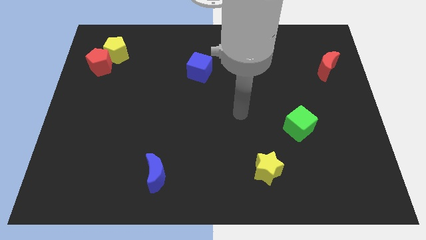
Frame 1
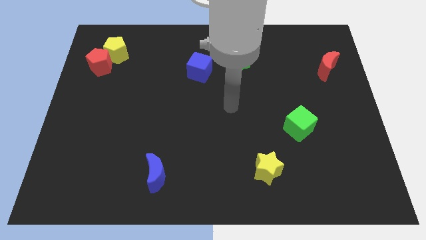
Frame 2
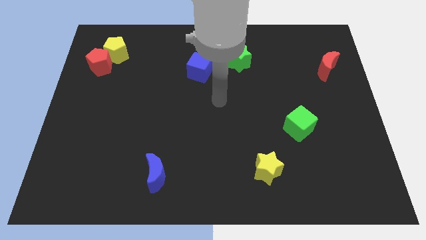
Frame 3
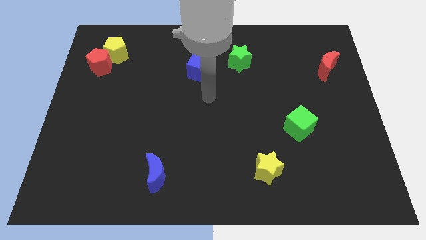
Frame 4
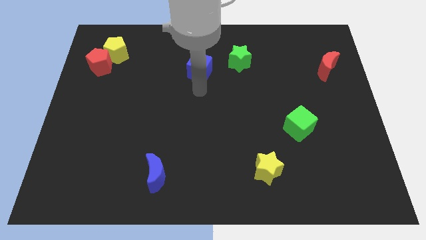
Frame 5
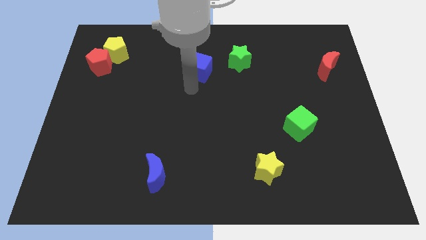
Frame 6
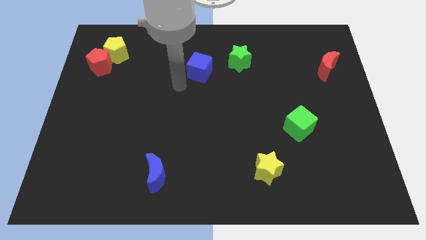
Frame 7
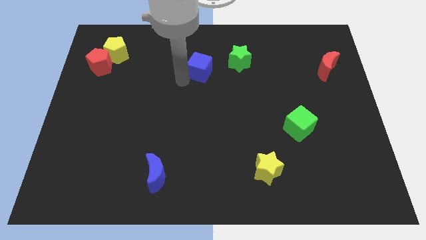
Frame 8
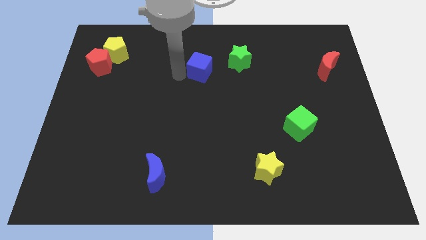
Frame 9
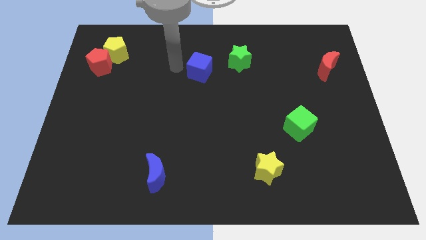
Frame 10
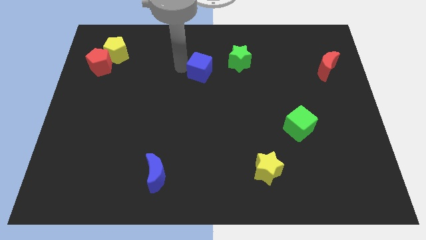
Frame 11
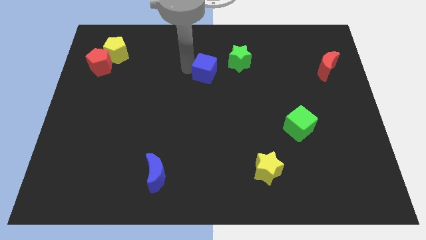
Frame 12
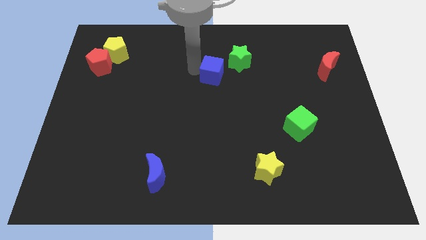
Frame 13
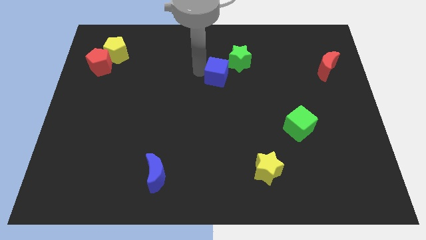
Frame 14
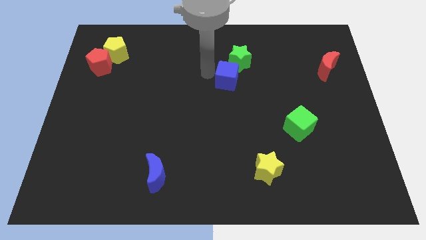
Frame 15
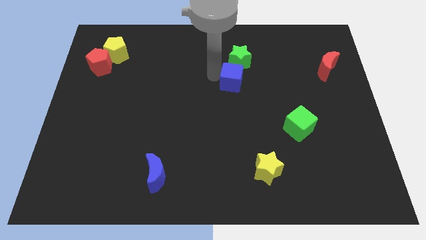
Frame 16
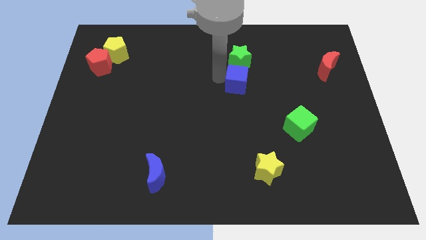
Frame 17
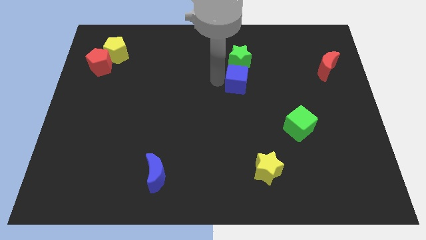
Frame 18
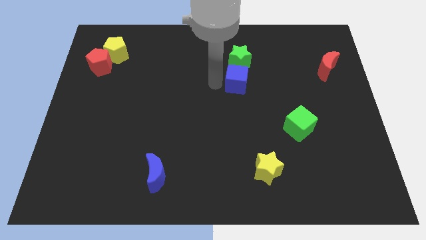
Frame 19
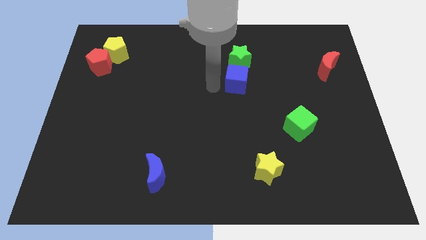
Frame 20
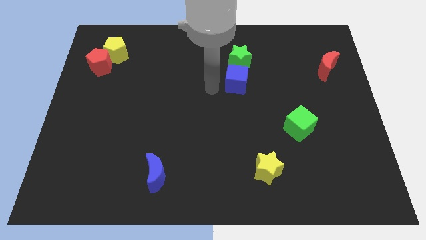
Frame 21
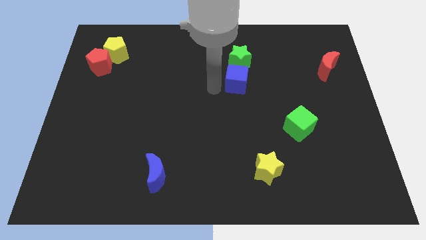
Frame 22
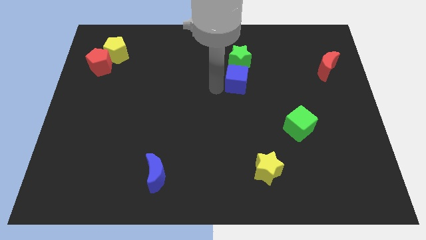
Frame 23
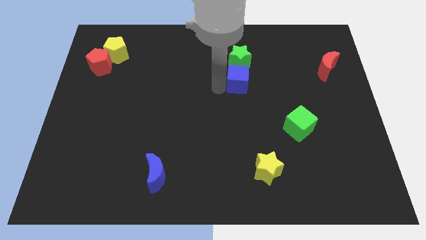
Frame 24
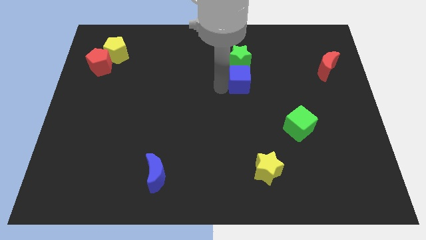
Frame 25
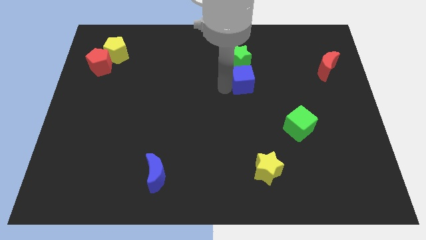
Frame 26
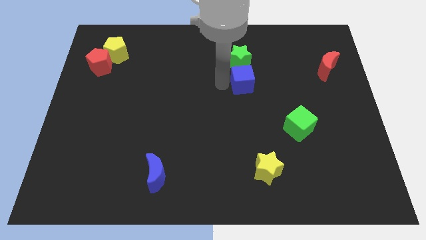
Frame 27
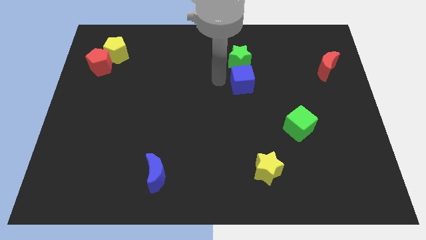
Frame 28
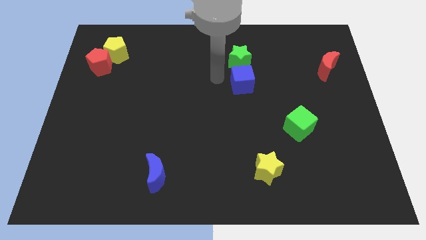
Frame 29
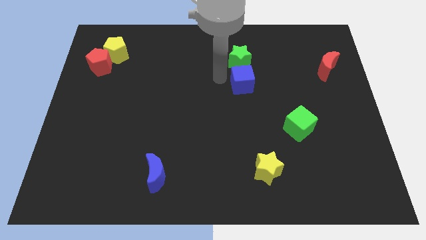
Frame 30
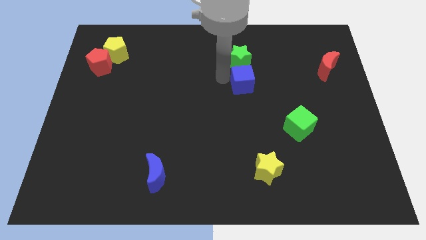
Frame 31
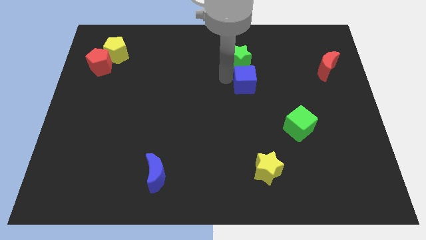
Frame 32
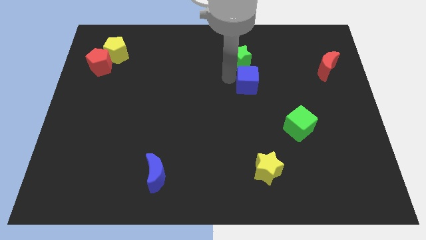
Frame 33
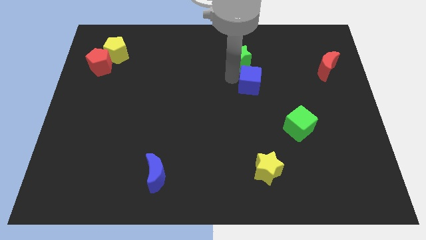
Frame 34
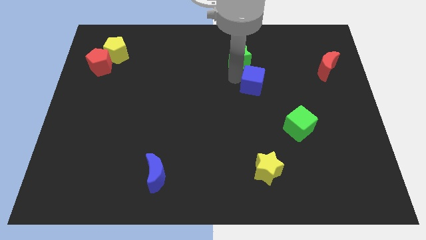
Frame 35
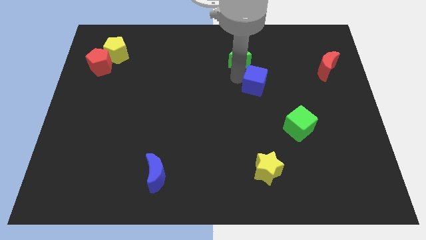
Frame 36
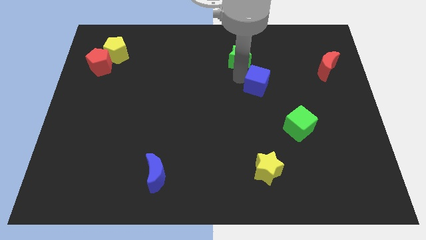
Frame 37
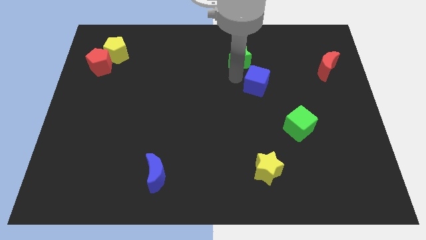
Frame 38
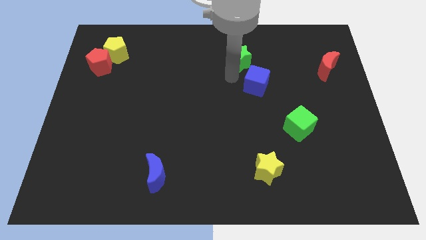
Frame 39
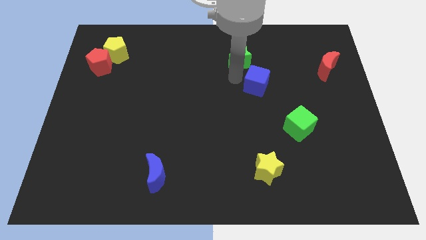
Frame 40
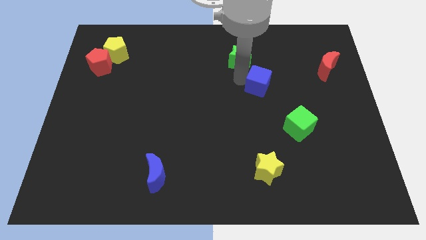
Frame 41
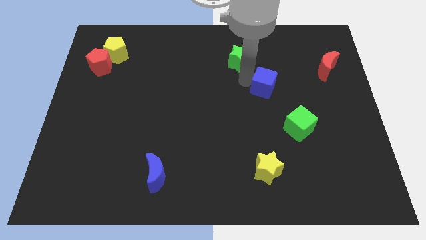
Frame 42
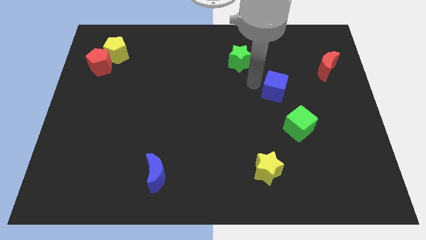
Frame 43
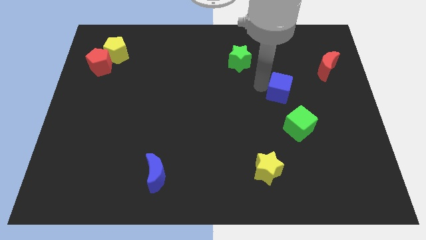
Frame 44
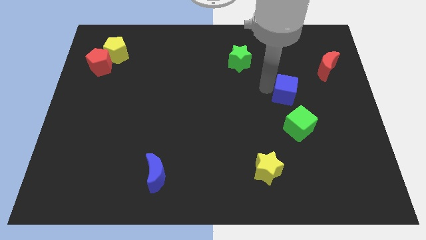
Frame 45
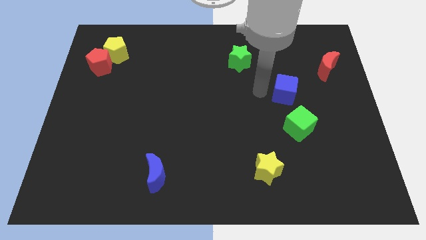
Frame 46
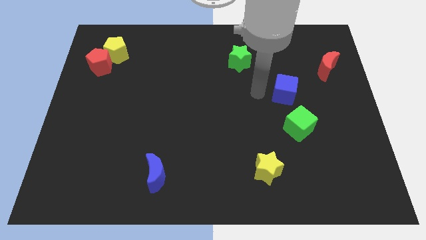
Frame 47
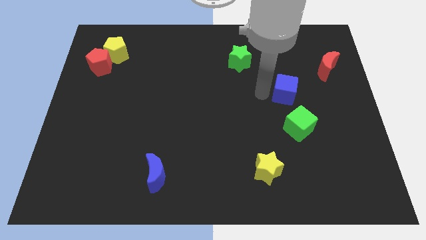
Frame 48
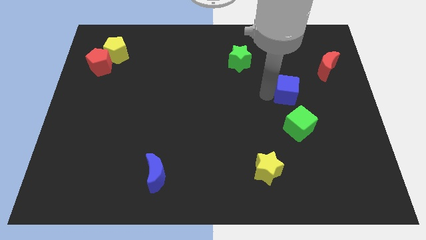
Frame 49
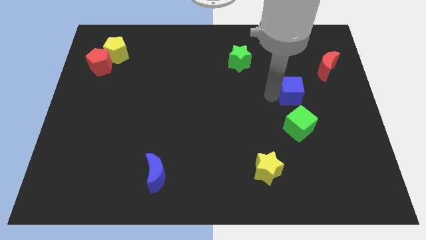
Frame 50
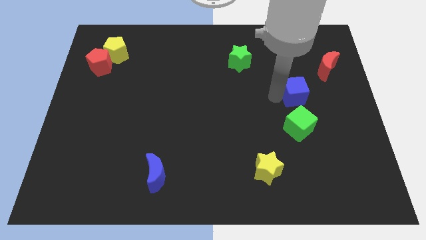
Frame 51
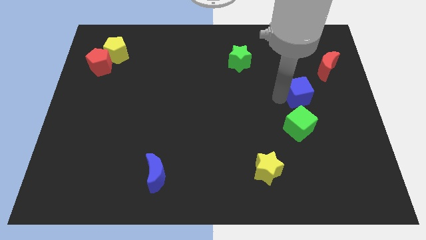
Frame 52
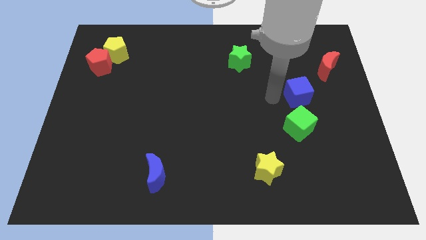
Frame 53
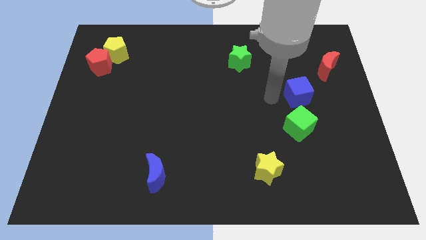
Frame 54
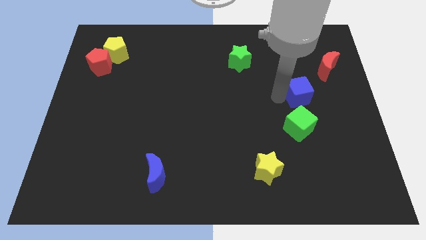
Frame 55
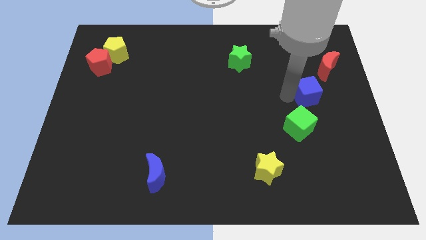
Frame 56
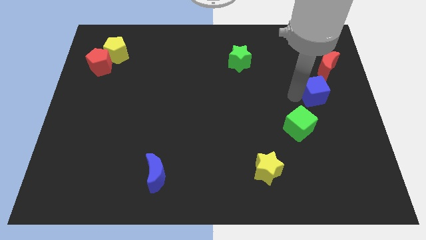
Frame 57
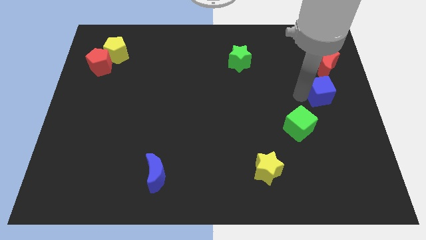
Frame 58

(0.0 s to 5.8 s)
slide the blue cube to the right side
